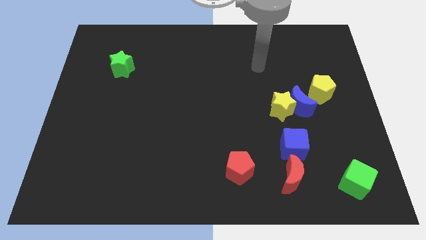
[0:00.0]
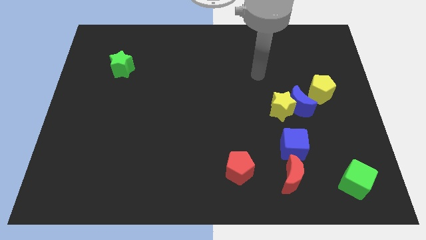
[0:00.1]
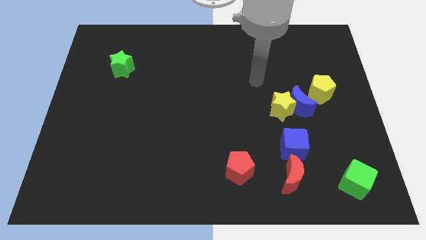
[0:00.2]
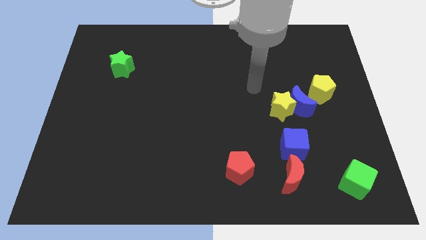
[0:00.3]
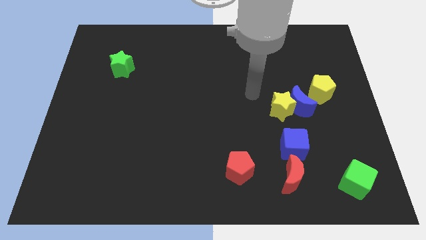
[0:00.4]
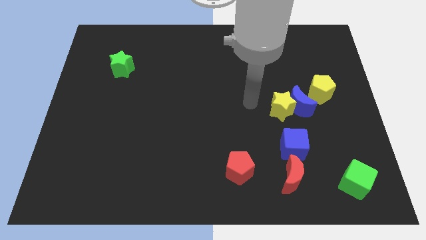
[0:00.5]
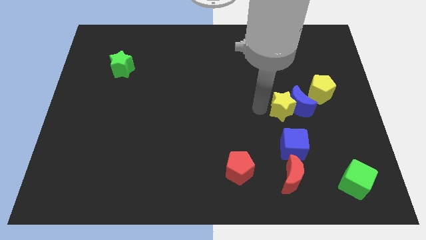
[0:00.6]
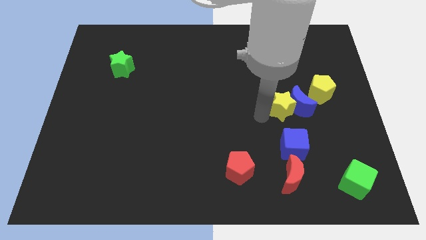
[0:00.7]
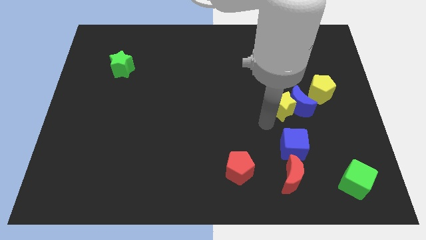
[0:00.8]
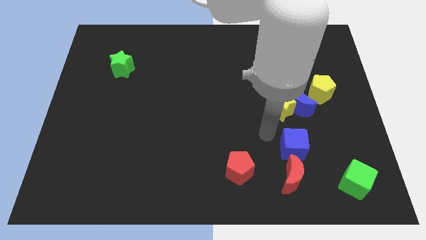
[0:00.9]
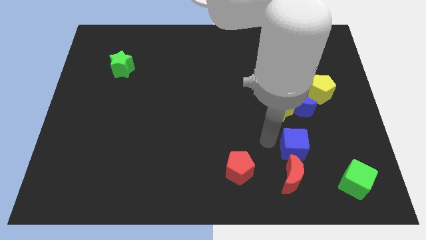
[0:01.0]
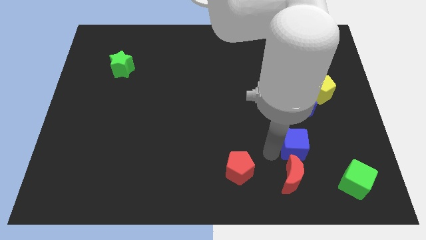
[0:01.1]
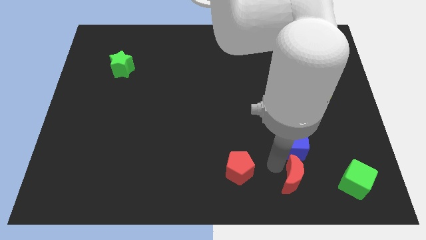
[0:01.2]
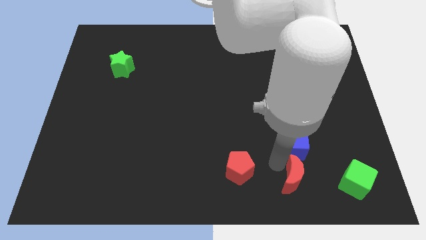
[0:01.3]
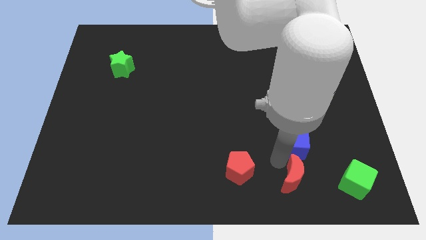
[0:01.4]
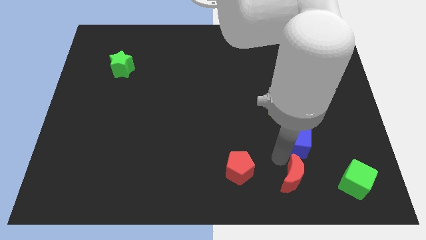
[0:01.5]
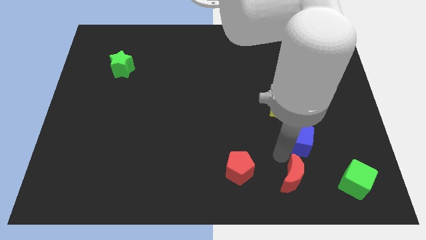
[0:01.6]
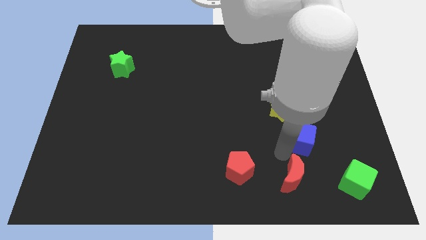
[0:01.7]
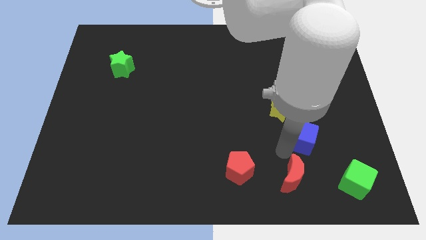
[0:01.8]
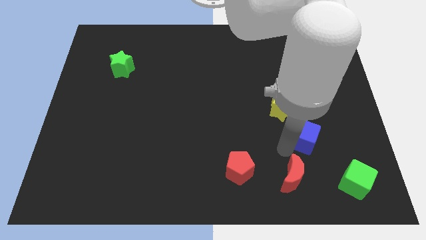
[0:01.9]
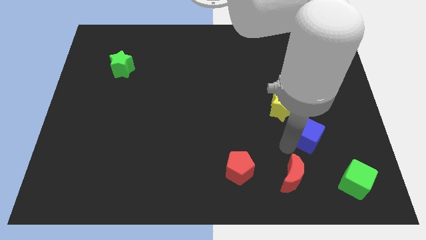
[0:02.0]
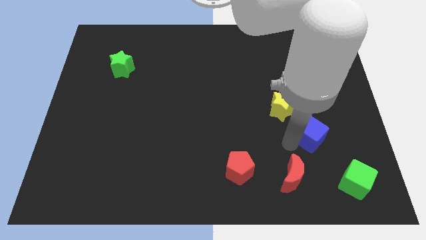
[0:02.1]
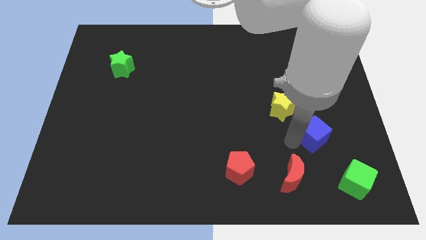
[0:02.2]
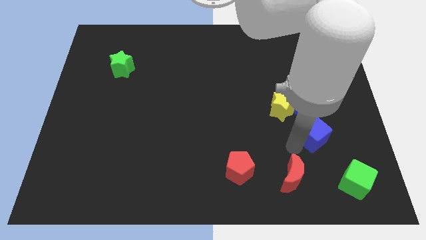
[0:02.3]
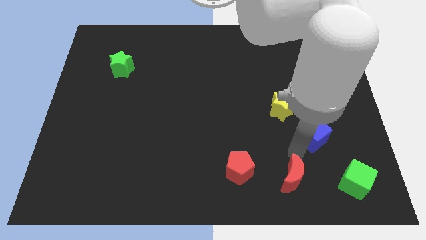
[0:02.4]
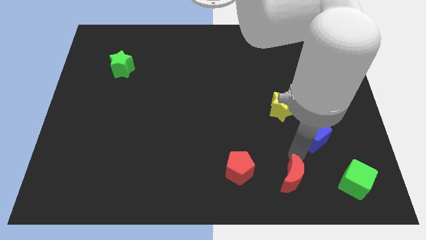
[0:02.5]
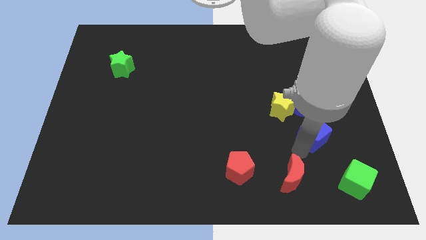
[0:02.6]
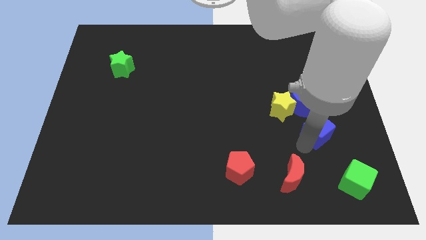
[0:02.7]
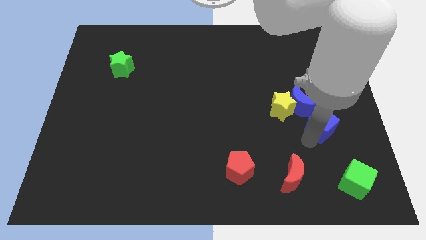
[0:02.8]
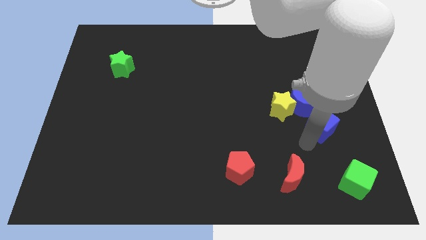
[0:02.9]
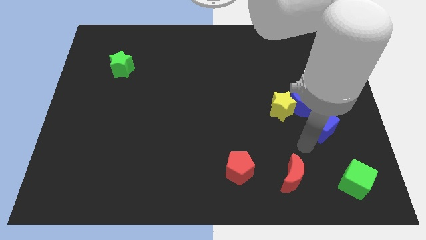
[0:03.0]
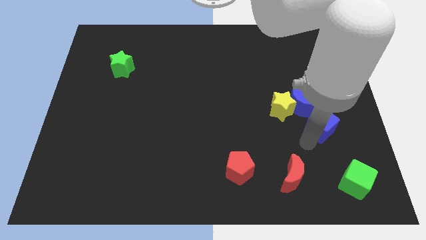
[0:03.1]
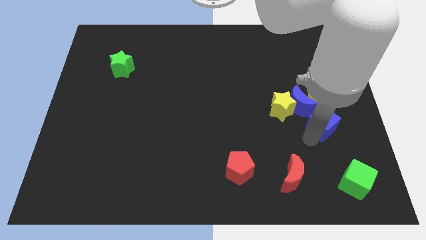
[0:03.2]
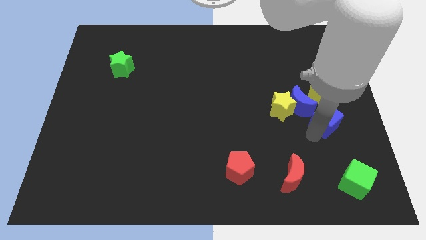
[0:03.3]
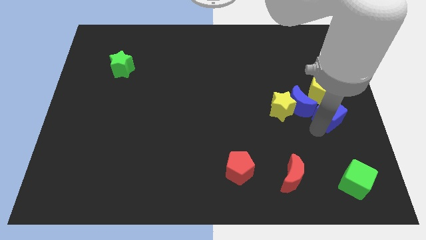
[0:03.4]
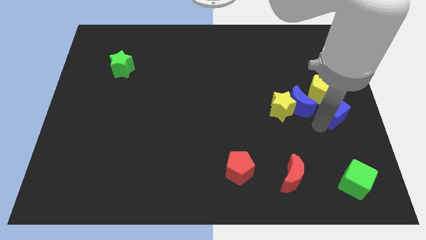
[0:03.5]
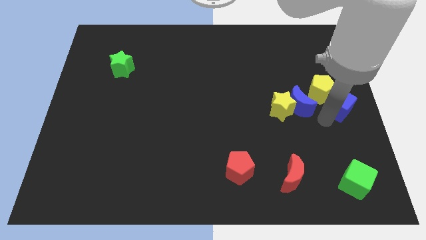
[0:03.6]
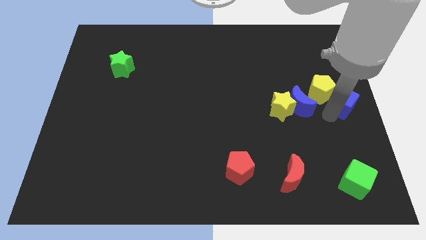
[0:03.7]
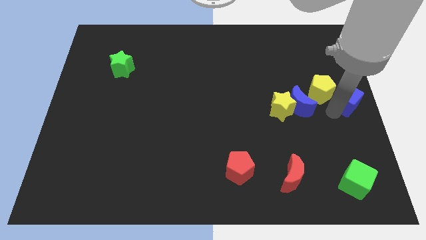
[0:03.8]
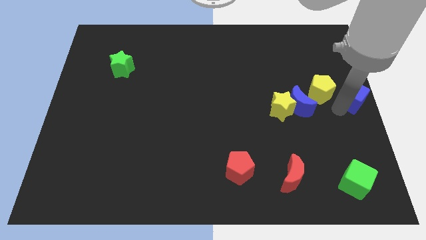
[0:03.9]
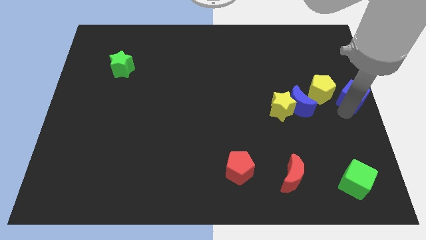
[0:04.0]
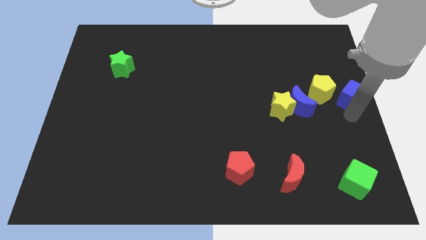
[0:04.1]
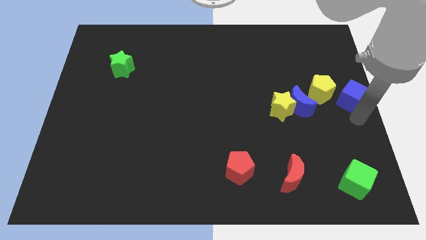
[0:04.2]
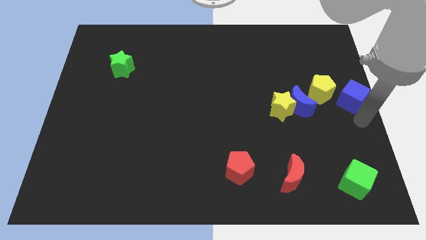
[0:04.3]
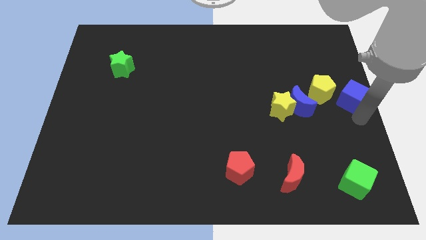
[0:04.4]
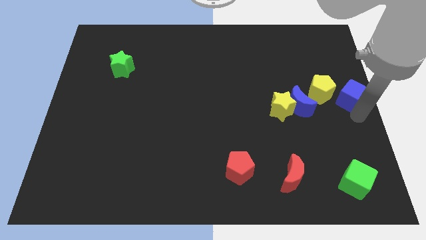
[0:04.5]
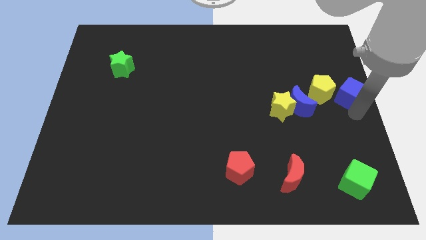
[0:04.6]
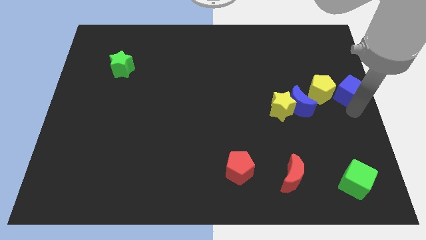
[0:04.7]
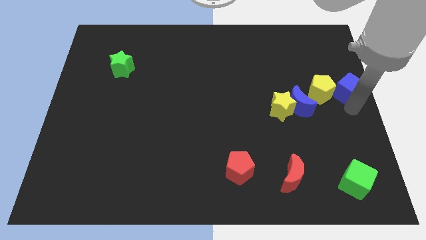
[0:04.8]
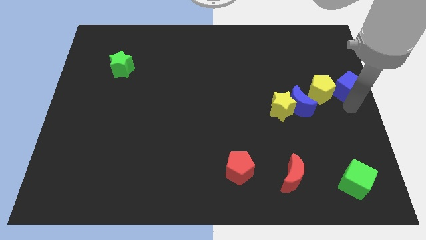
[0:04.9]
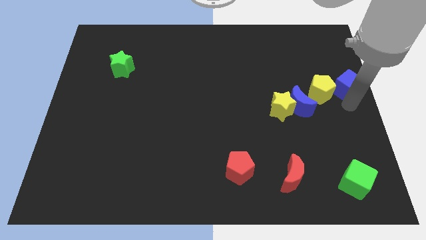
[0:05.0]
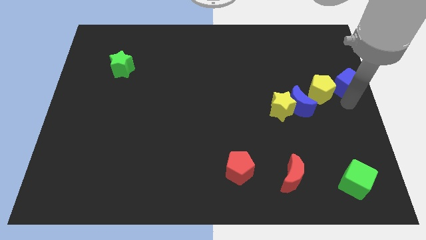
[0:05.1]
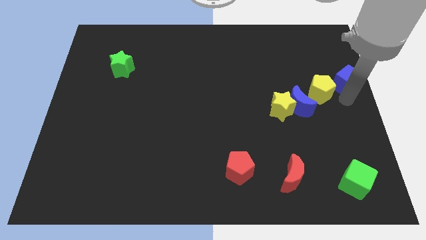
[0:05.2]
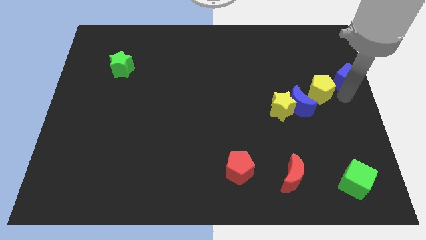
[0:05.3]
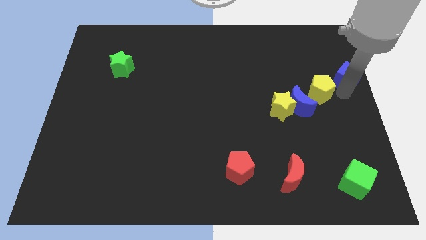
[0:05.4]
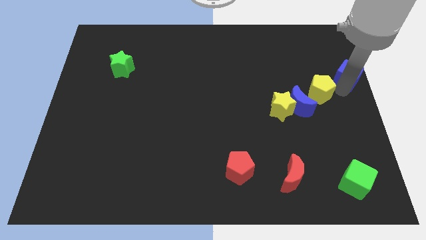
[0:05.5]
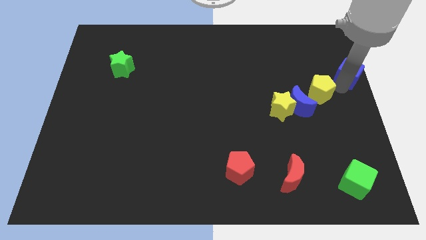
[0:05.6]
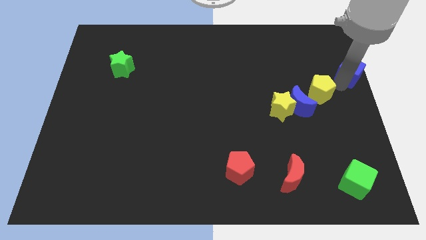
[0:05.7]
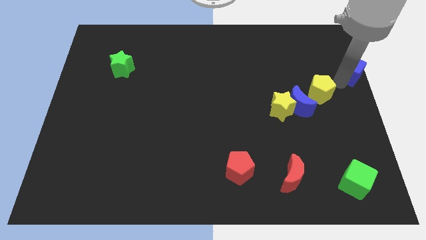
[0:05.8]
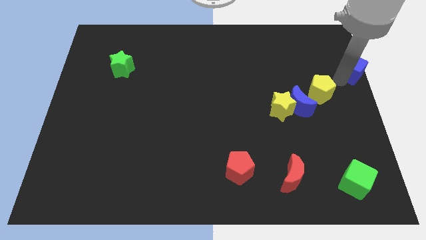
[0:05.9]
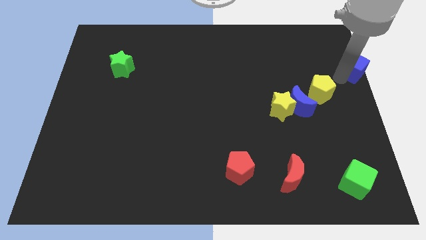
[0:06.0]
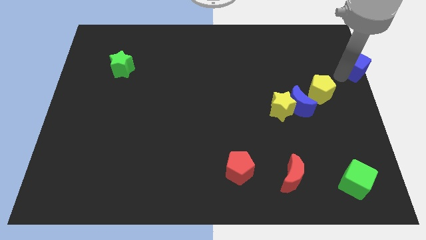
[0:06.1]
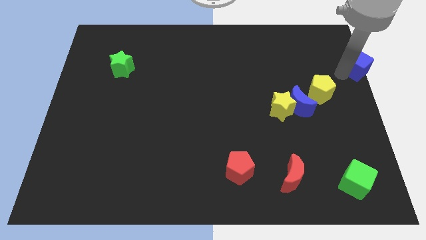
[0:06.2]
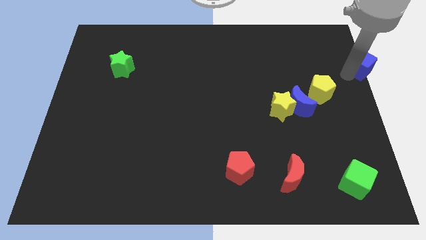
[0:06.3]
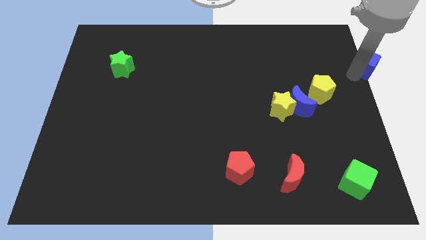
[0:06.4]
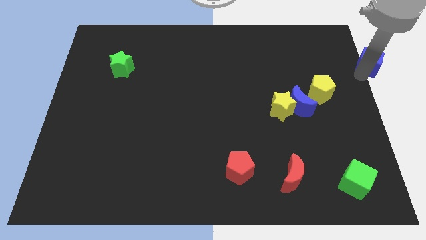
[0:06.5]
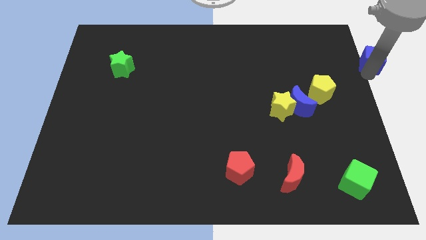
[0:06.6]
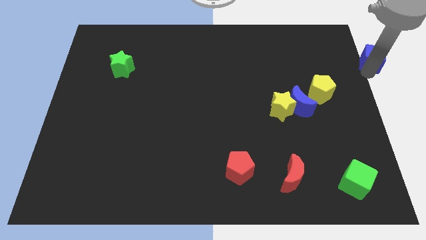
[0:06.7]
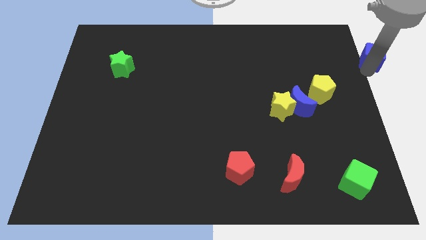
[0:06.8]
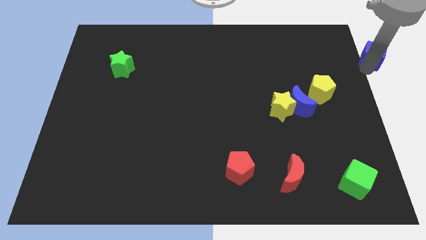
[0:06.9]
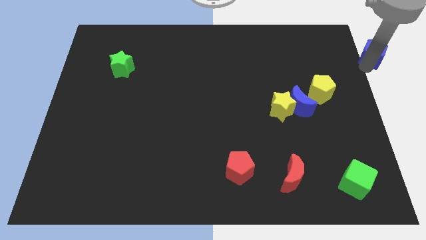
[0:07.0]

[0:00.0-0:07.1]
push the blue cube to the top right corner
